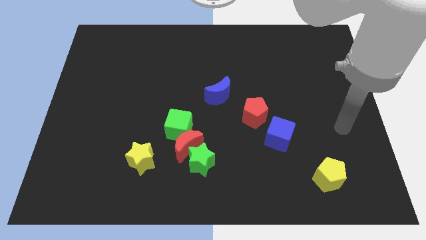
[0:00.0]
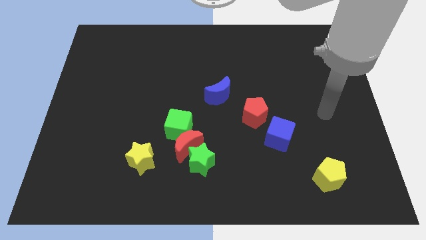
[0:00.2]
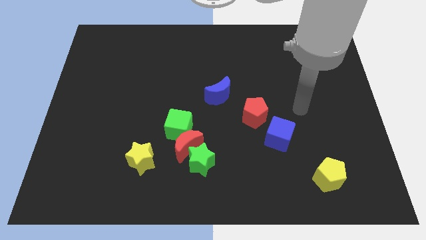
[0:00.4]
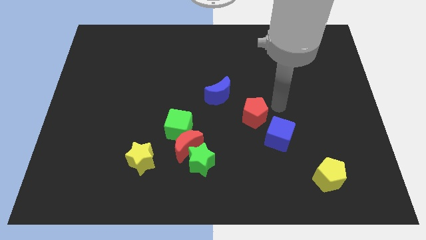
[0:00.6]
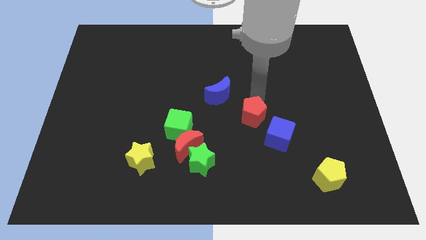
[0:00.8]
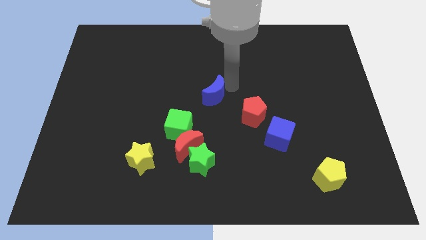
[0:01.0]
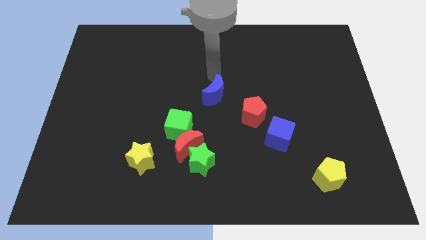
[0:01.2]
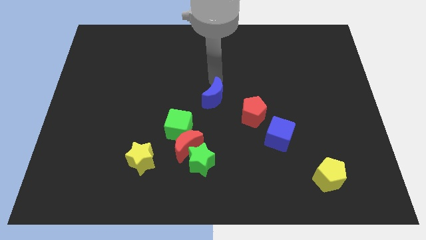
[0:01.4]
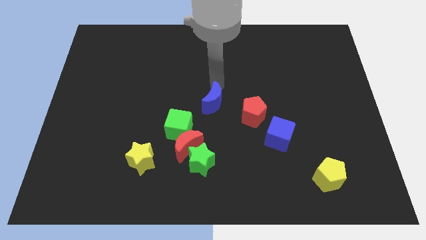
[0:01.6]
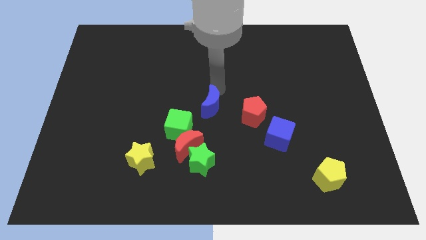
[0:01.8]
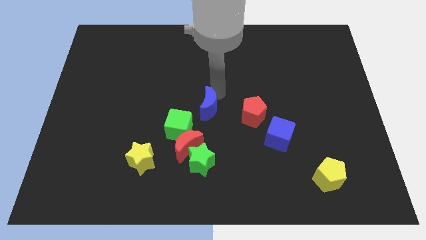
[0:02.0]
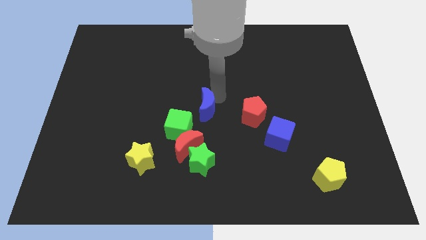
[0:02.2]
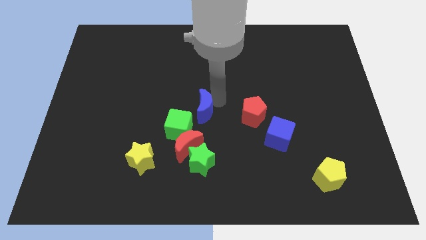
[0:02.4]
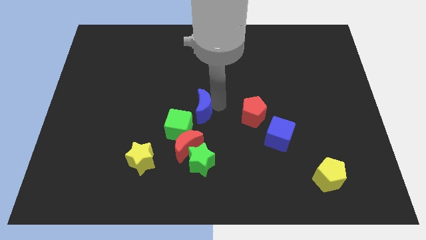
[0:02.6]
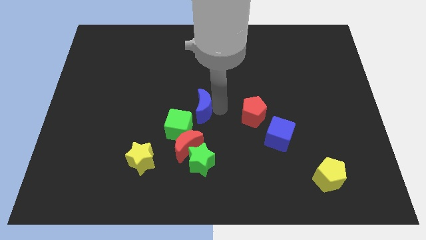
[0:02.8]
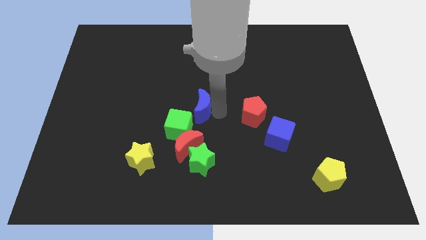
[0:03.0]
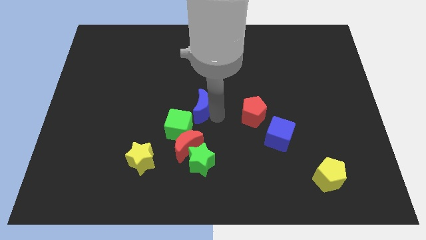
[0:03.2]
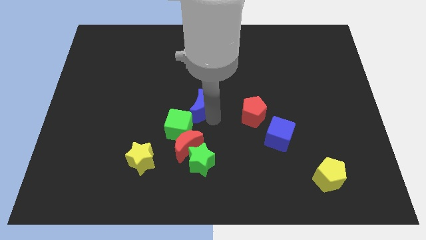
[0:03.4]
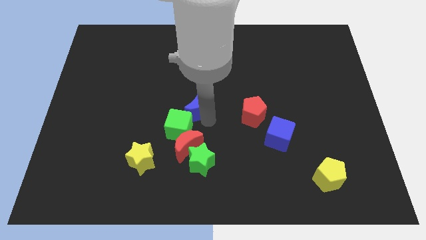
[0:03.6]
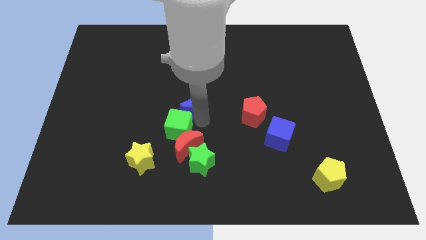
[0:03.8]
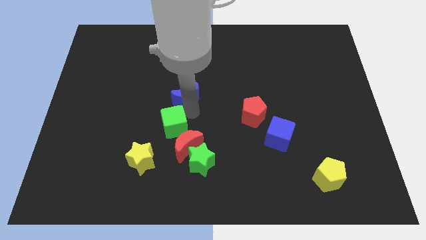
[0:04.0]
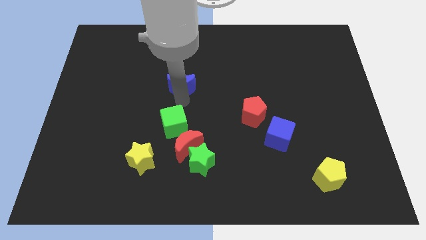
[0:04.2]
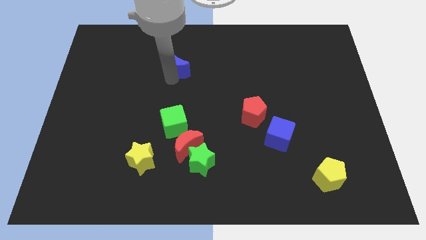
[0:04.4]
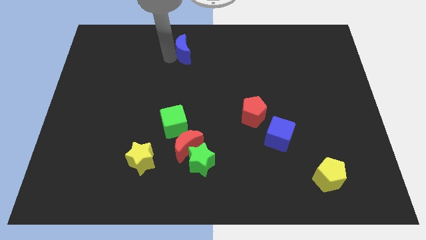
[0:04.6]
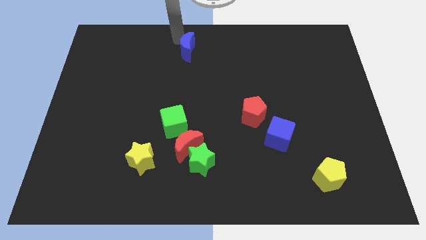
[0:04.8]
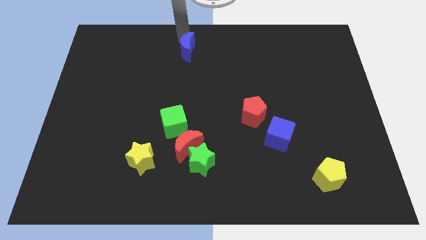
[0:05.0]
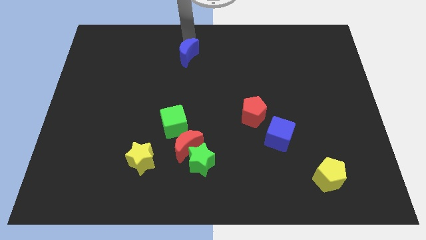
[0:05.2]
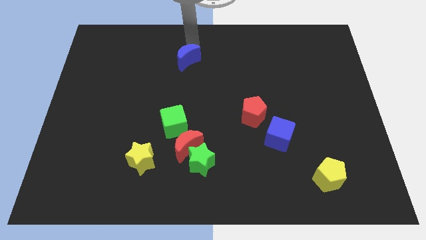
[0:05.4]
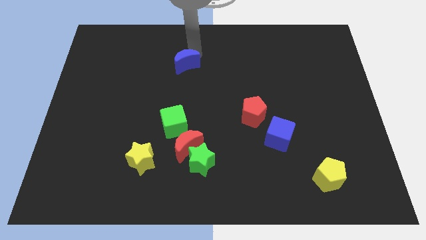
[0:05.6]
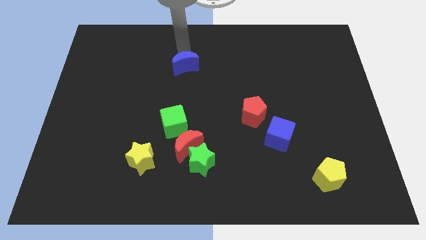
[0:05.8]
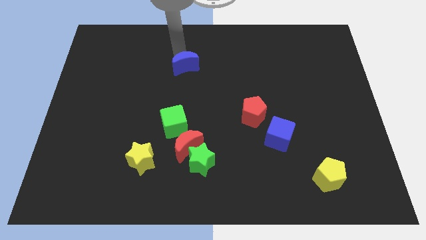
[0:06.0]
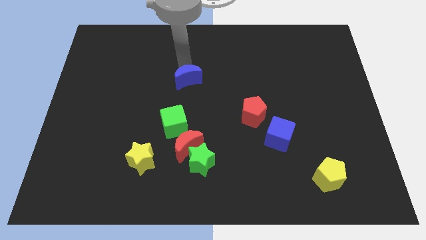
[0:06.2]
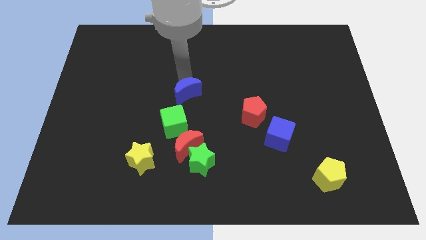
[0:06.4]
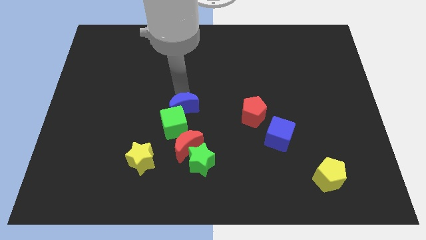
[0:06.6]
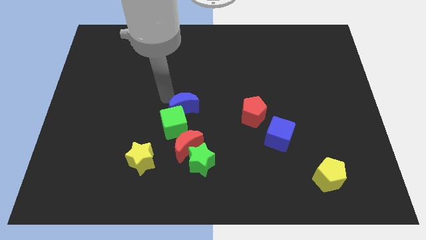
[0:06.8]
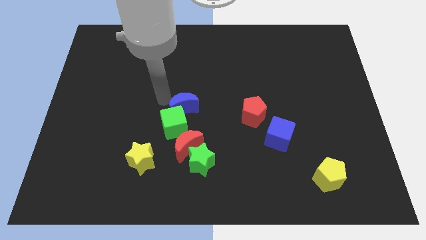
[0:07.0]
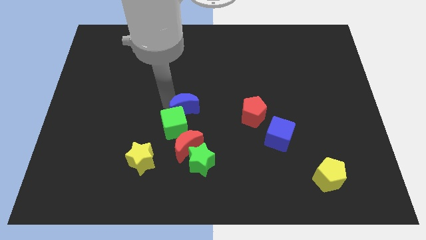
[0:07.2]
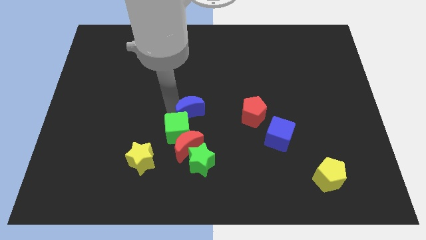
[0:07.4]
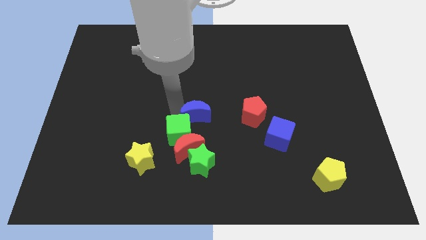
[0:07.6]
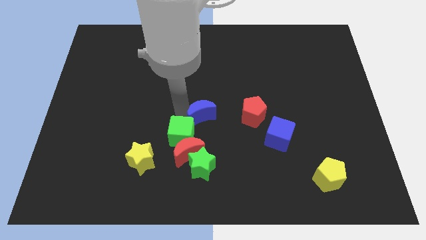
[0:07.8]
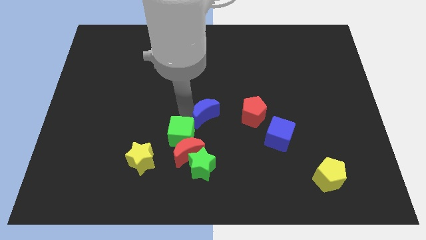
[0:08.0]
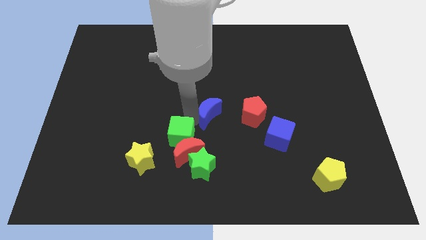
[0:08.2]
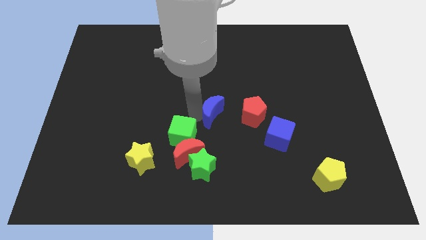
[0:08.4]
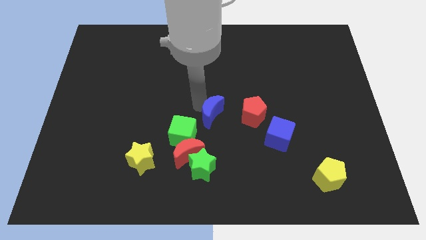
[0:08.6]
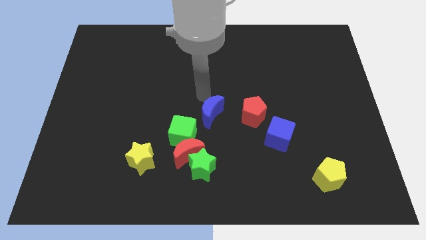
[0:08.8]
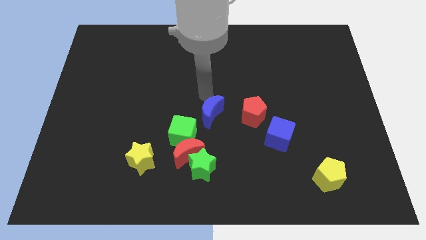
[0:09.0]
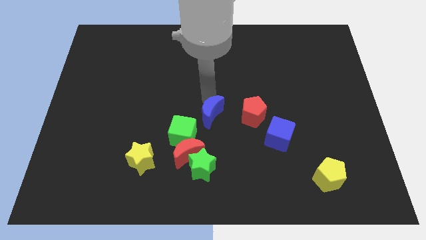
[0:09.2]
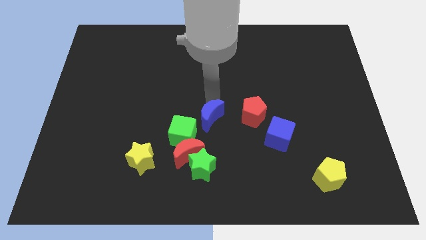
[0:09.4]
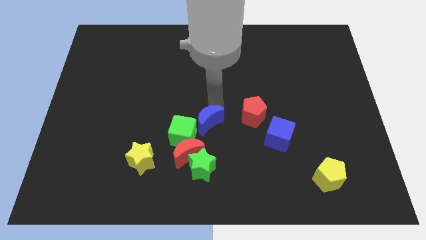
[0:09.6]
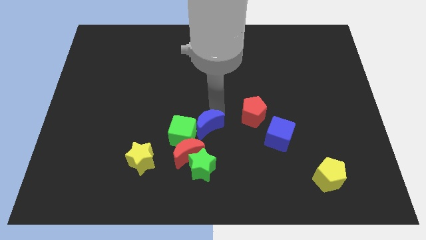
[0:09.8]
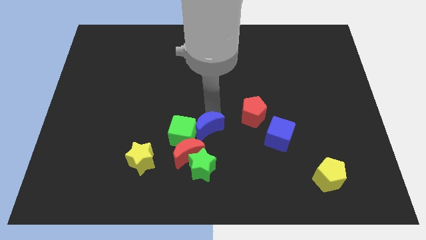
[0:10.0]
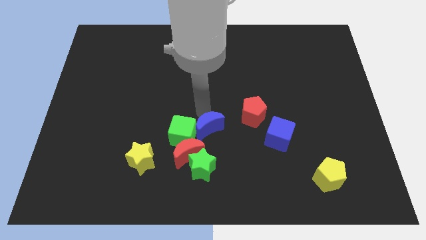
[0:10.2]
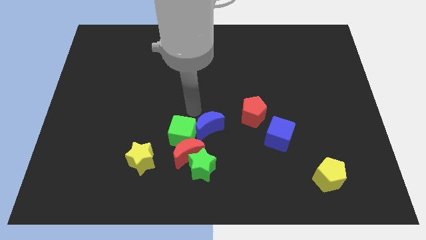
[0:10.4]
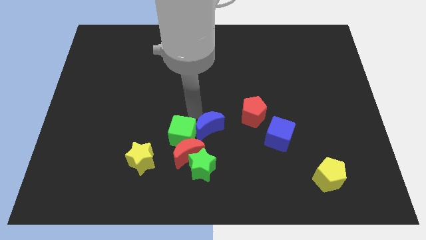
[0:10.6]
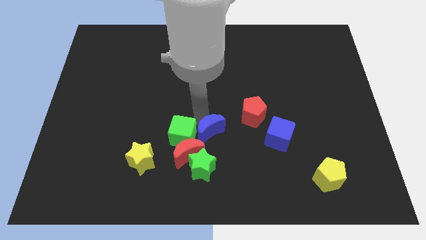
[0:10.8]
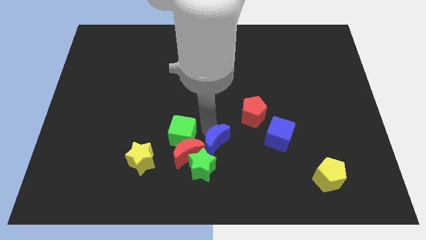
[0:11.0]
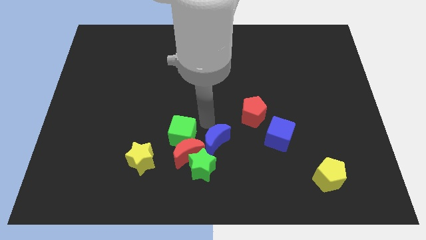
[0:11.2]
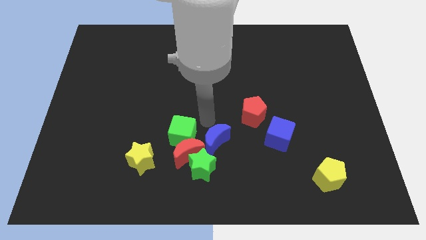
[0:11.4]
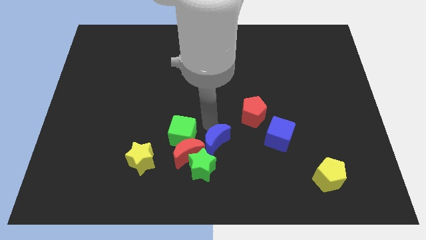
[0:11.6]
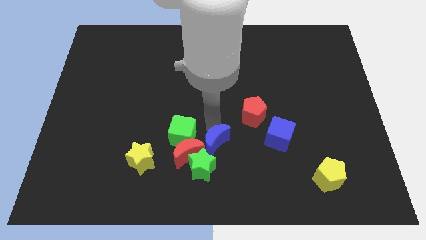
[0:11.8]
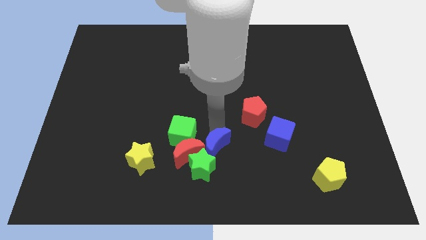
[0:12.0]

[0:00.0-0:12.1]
move the blue moon towards the green star
